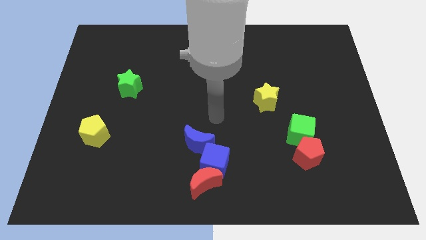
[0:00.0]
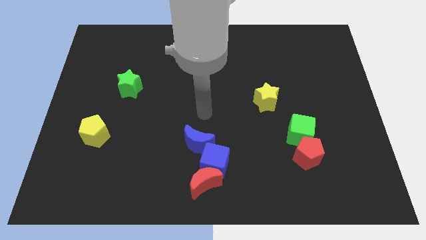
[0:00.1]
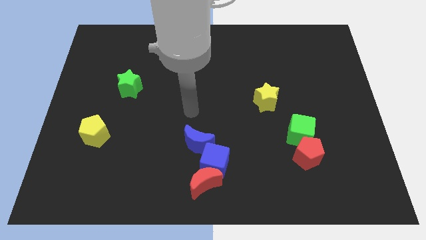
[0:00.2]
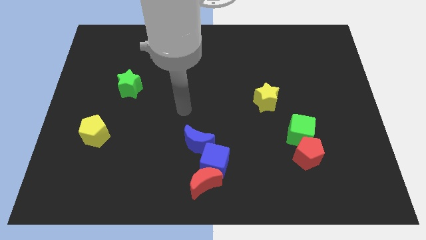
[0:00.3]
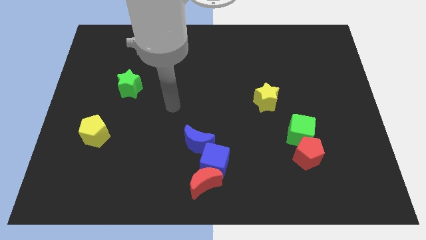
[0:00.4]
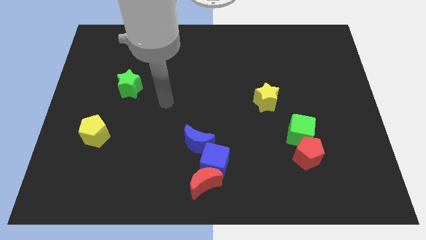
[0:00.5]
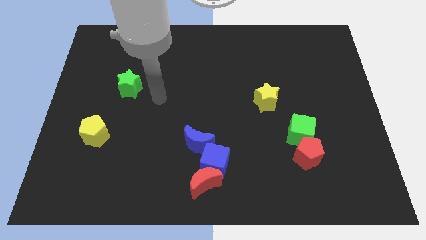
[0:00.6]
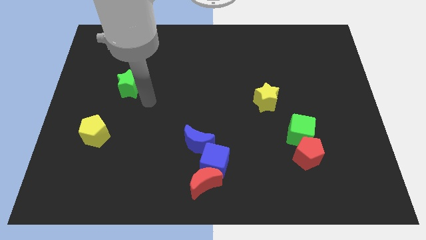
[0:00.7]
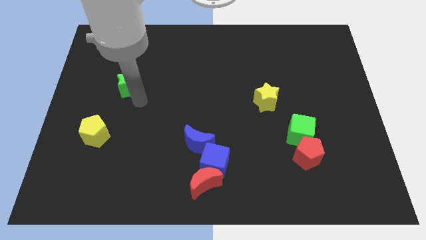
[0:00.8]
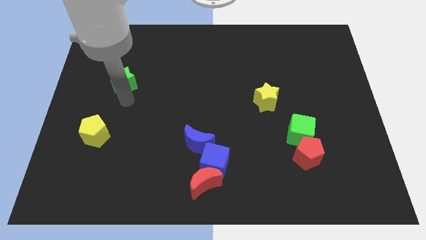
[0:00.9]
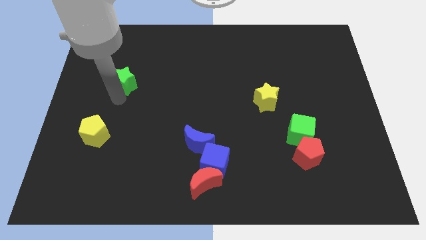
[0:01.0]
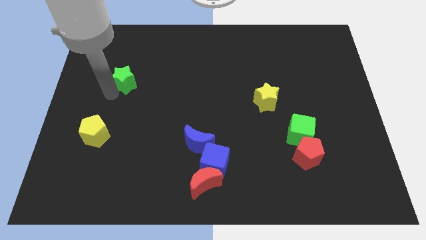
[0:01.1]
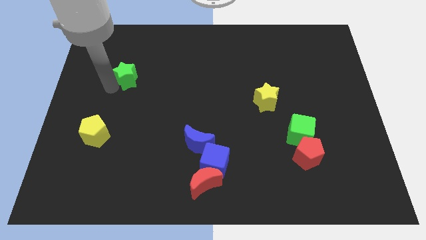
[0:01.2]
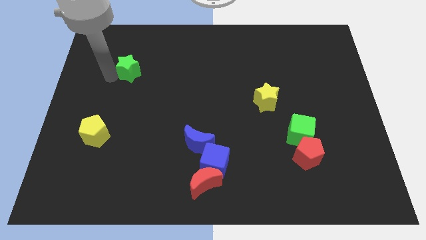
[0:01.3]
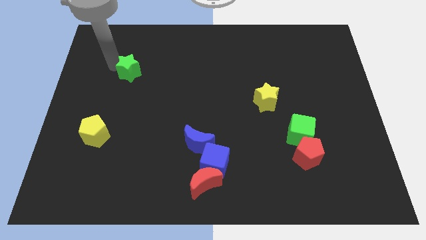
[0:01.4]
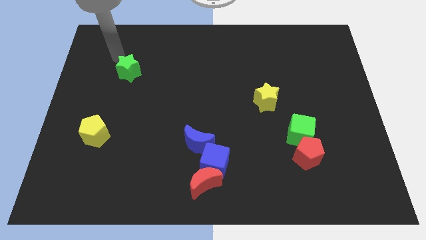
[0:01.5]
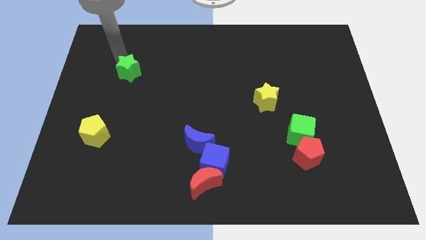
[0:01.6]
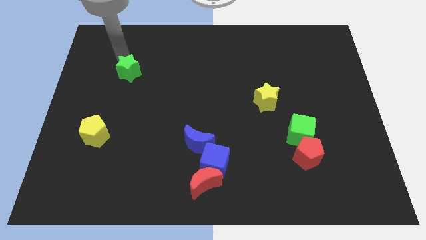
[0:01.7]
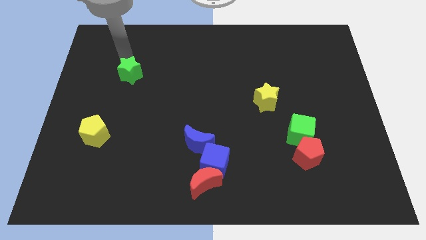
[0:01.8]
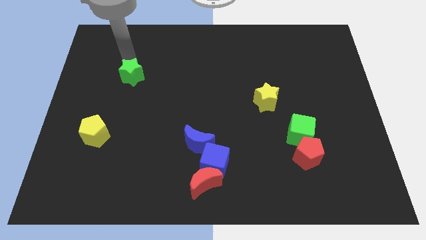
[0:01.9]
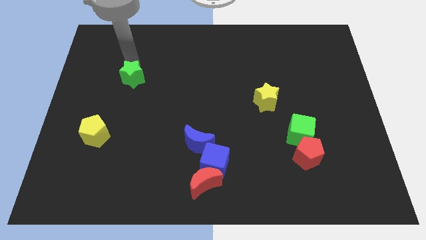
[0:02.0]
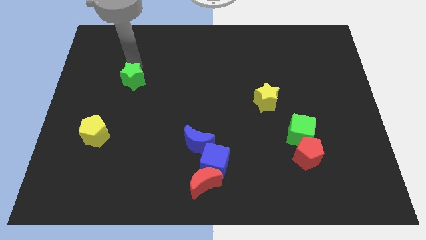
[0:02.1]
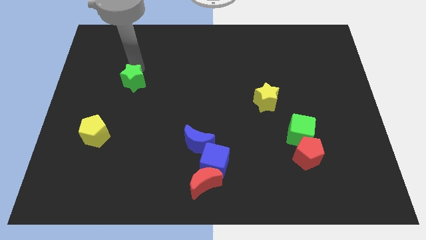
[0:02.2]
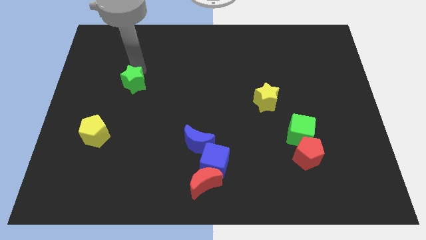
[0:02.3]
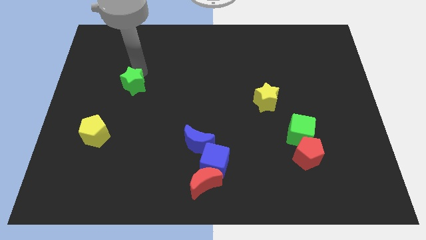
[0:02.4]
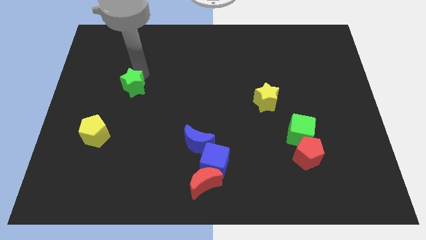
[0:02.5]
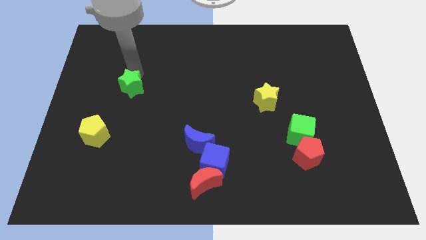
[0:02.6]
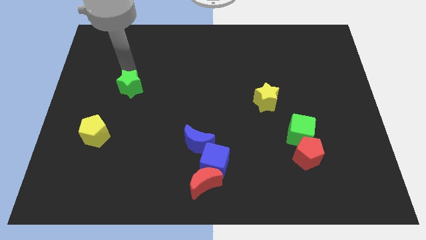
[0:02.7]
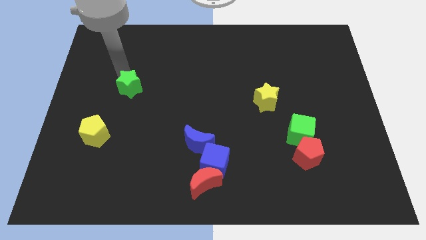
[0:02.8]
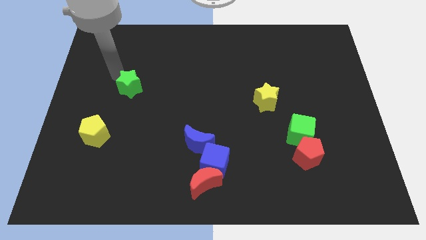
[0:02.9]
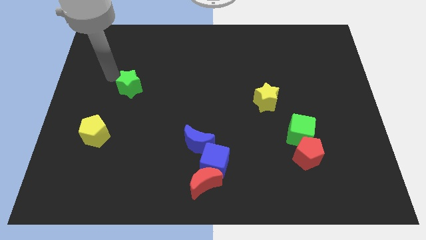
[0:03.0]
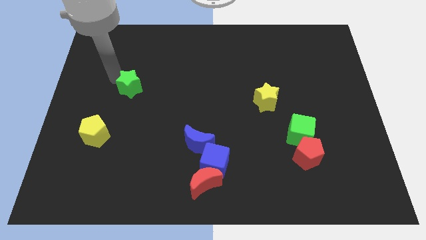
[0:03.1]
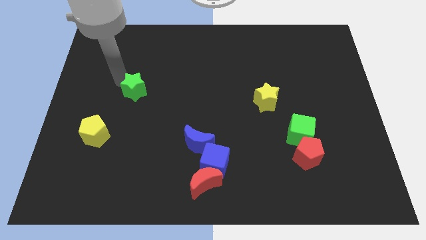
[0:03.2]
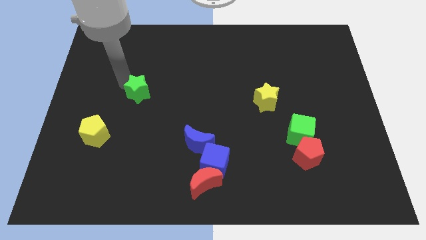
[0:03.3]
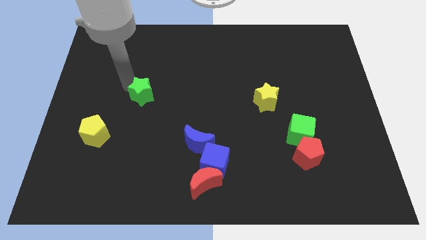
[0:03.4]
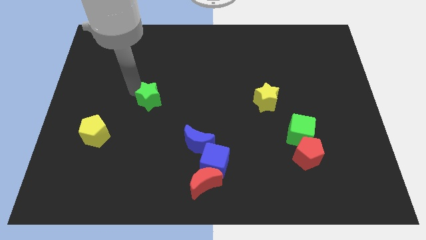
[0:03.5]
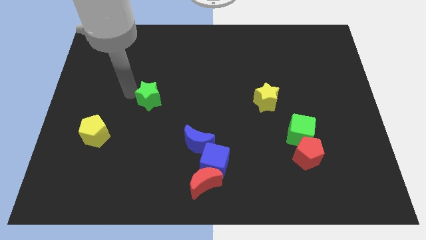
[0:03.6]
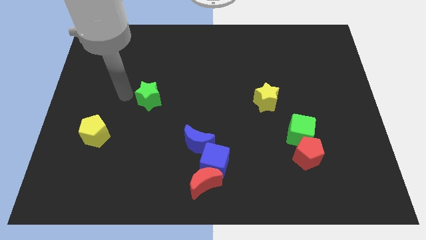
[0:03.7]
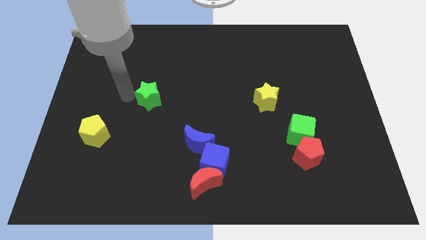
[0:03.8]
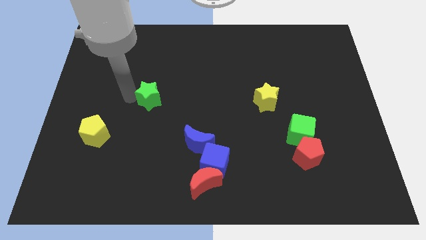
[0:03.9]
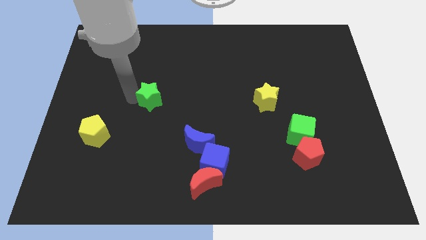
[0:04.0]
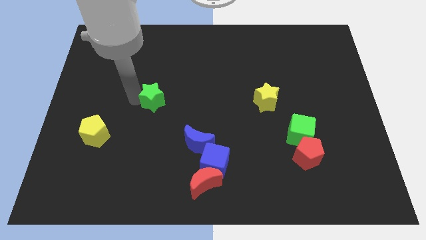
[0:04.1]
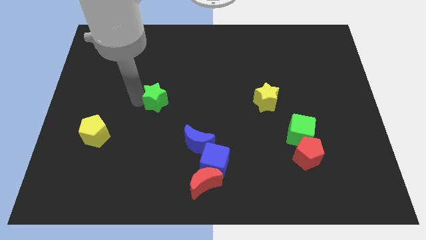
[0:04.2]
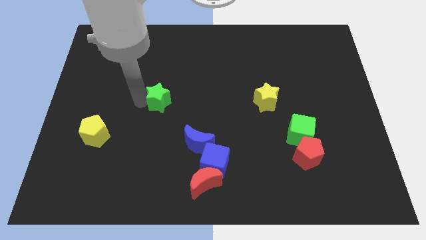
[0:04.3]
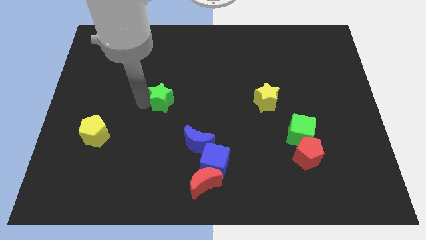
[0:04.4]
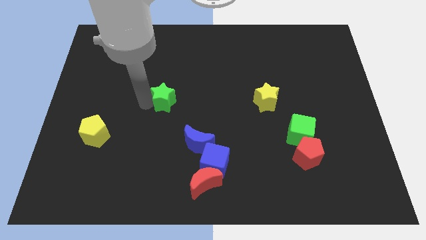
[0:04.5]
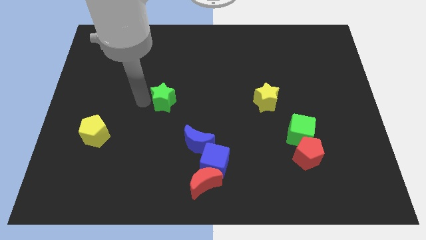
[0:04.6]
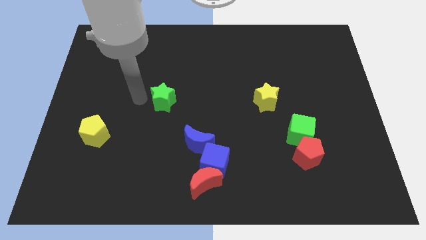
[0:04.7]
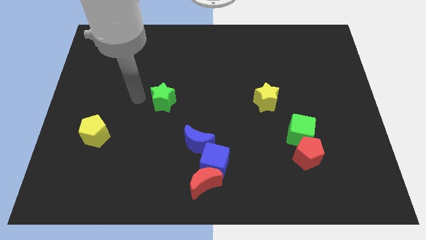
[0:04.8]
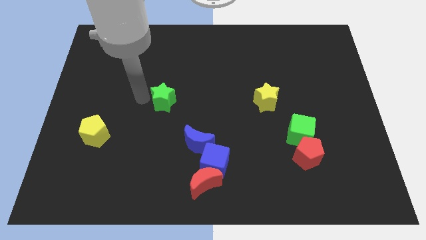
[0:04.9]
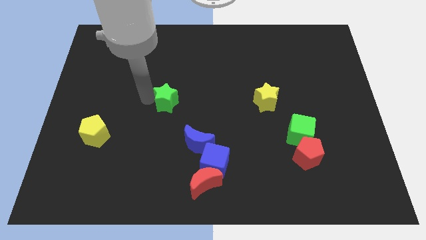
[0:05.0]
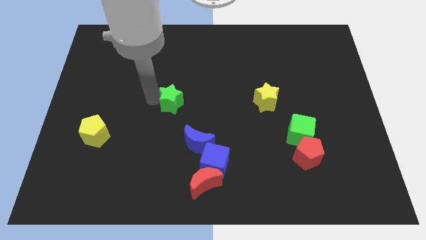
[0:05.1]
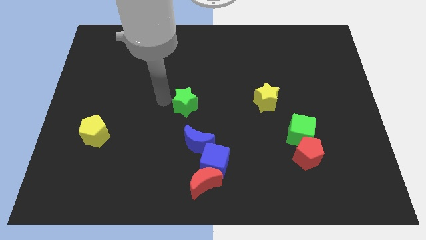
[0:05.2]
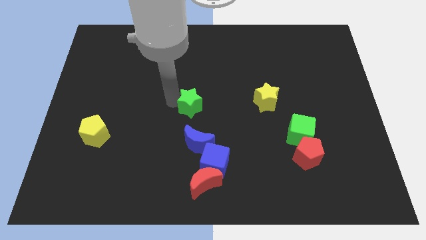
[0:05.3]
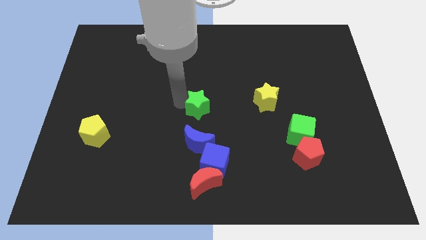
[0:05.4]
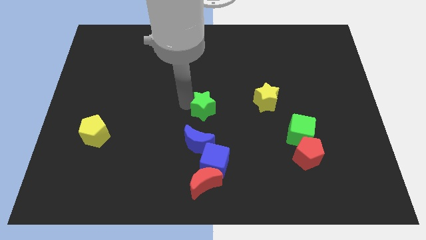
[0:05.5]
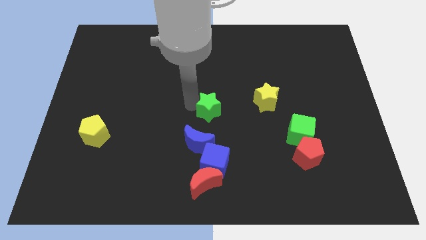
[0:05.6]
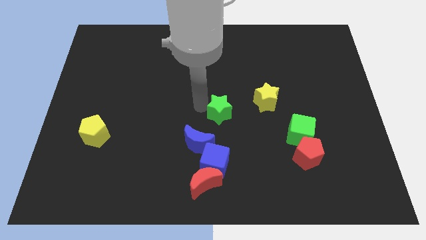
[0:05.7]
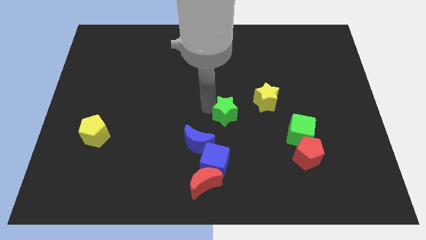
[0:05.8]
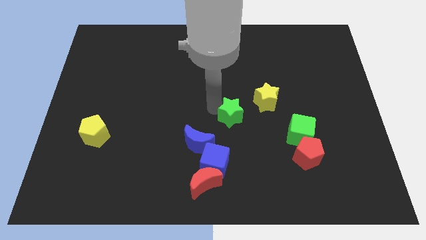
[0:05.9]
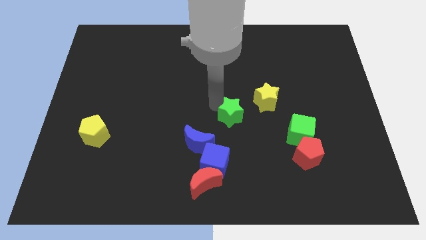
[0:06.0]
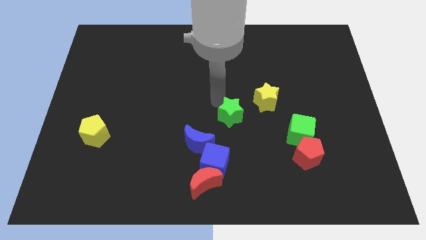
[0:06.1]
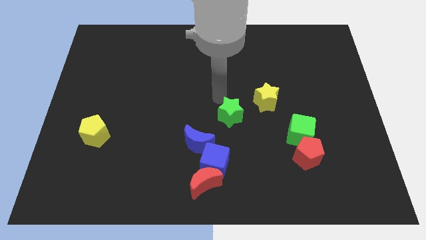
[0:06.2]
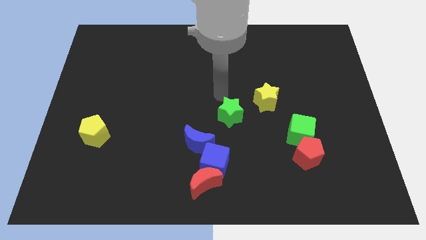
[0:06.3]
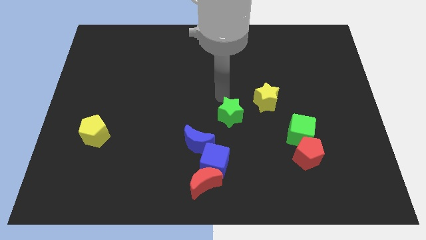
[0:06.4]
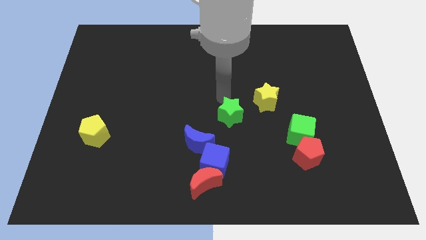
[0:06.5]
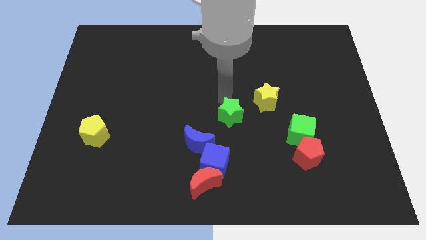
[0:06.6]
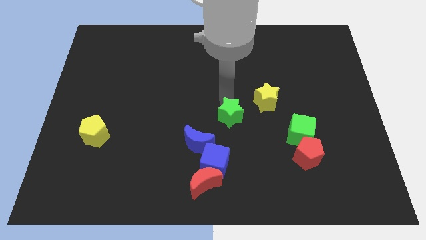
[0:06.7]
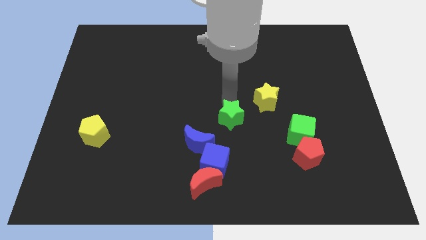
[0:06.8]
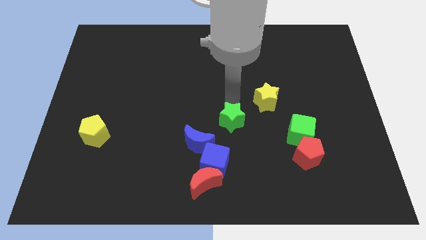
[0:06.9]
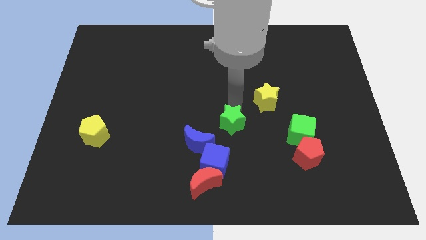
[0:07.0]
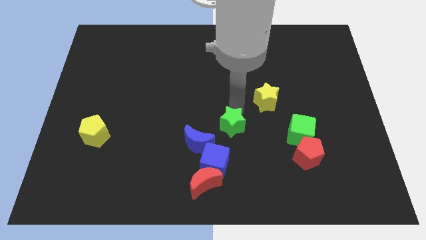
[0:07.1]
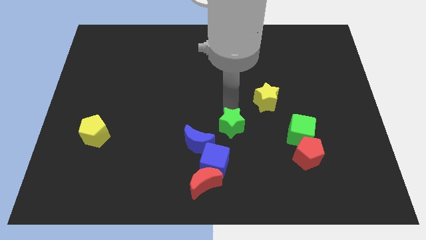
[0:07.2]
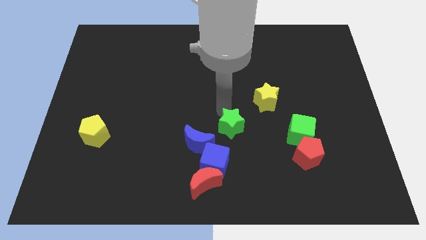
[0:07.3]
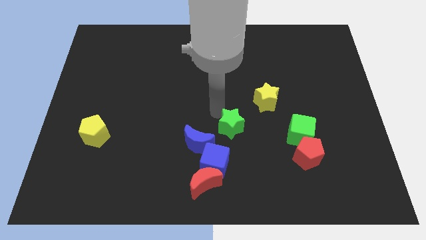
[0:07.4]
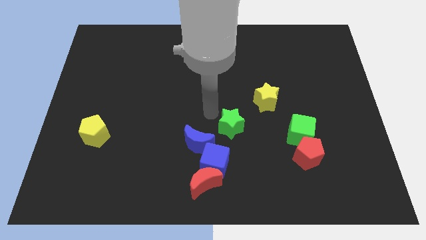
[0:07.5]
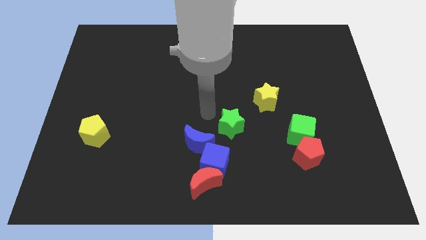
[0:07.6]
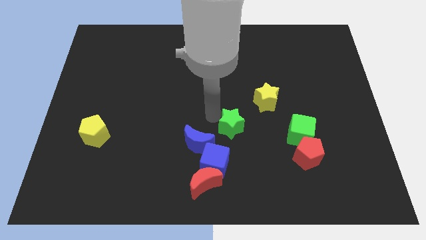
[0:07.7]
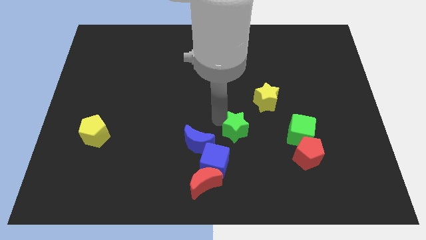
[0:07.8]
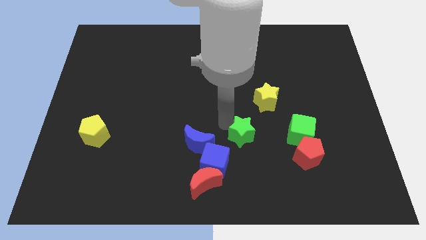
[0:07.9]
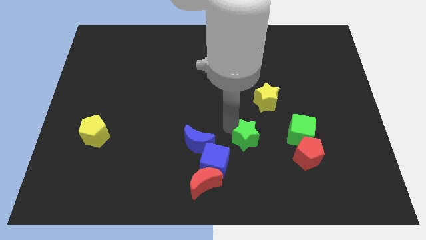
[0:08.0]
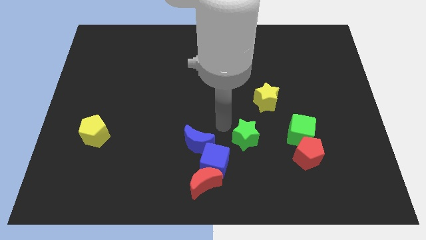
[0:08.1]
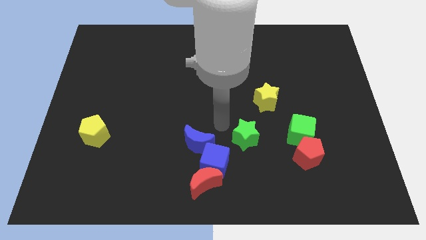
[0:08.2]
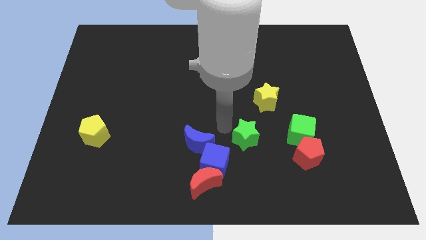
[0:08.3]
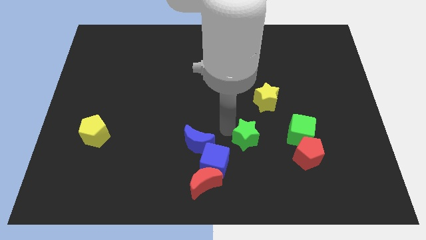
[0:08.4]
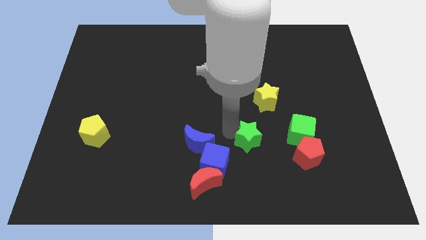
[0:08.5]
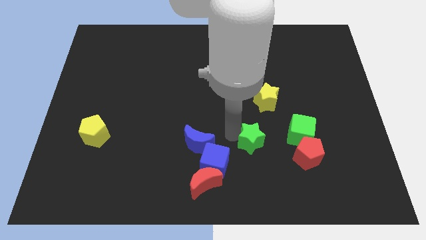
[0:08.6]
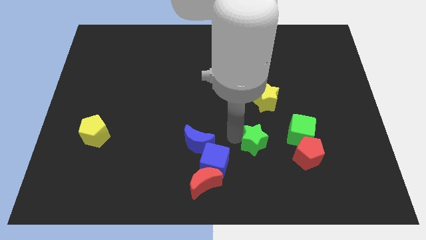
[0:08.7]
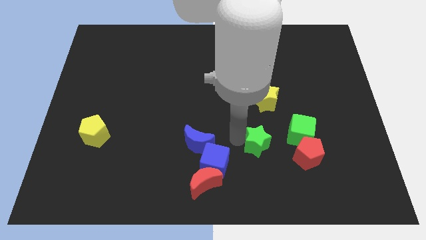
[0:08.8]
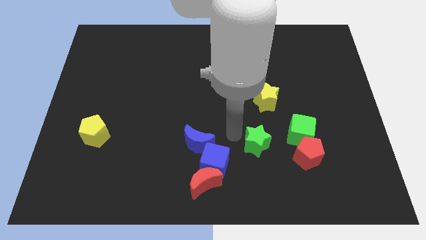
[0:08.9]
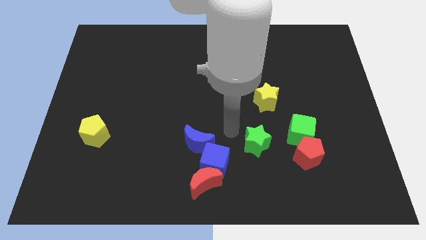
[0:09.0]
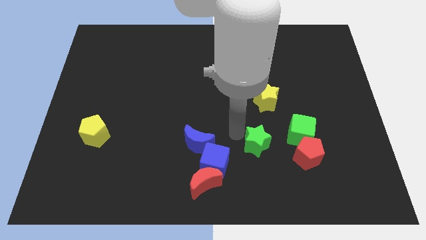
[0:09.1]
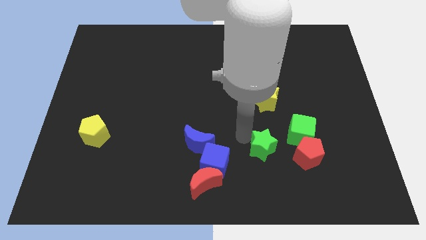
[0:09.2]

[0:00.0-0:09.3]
put the green star to the bottom left side of the green cube
